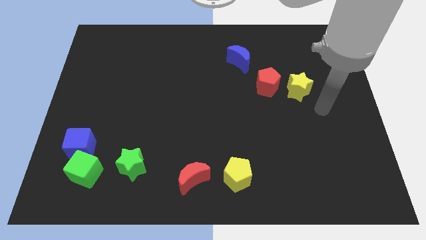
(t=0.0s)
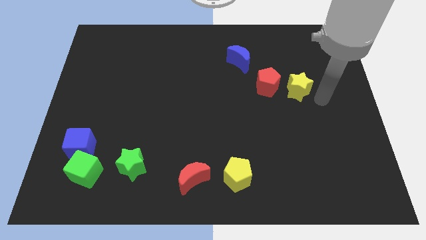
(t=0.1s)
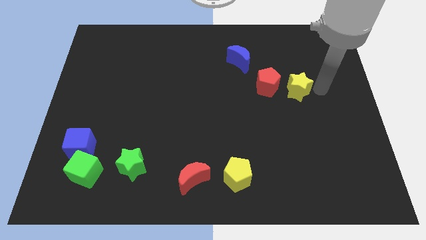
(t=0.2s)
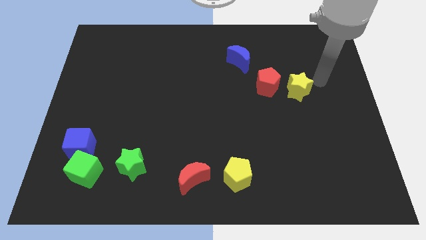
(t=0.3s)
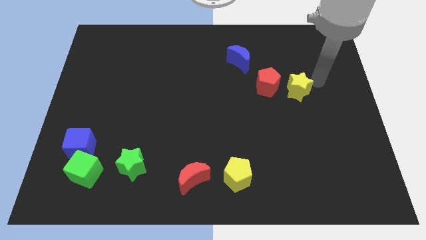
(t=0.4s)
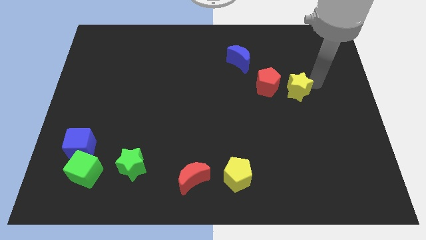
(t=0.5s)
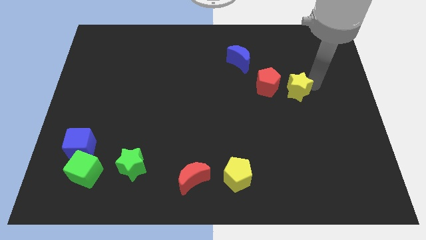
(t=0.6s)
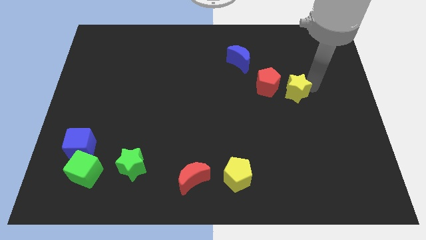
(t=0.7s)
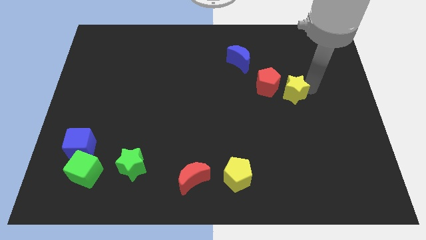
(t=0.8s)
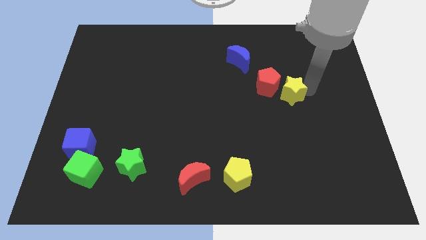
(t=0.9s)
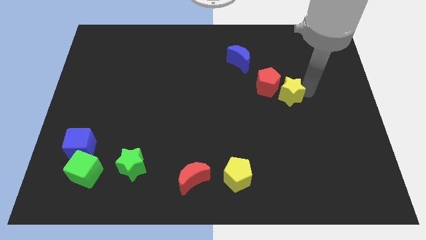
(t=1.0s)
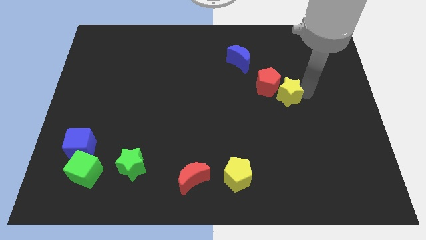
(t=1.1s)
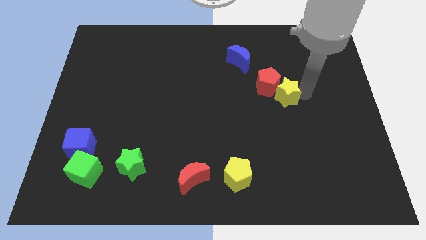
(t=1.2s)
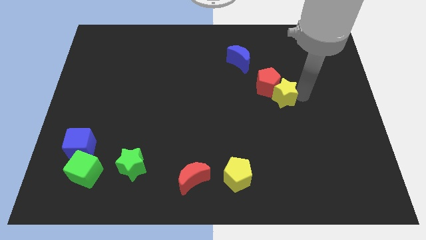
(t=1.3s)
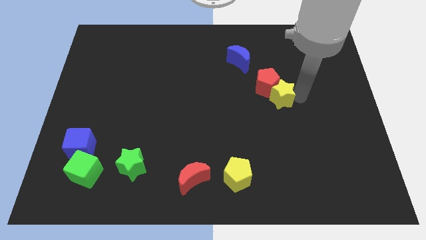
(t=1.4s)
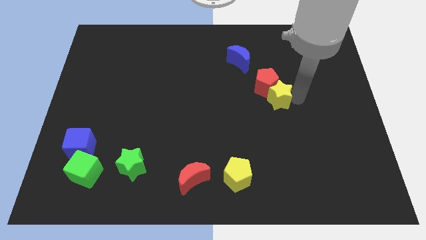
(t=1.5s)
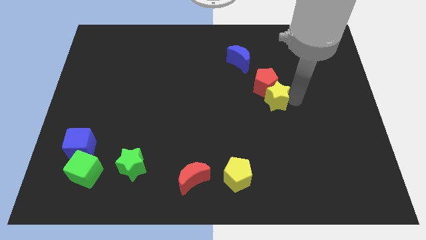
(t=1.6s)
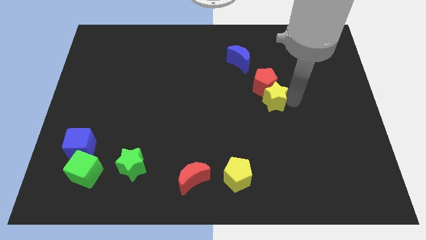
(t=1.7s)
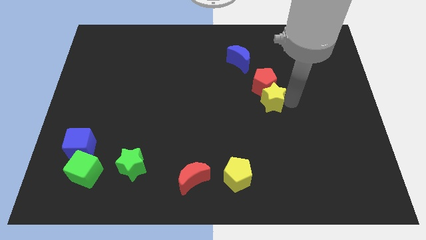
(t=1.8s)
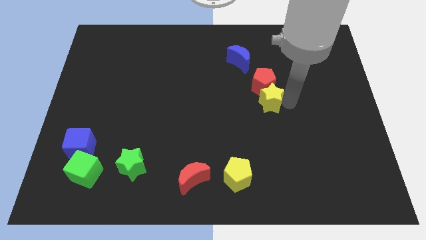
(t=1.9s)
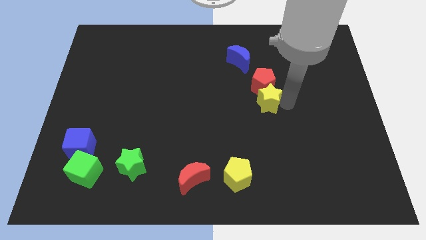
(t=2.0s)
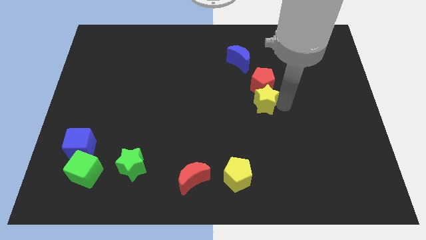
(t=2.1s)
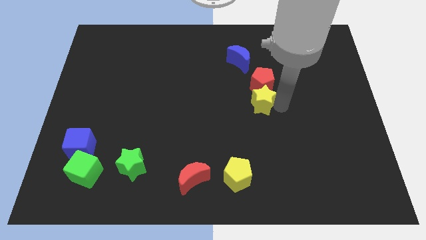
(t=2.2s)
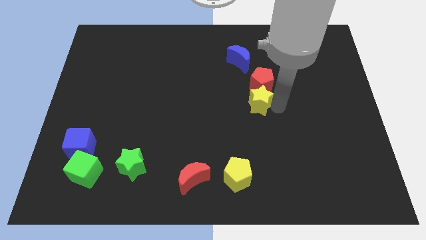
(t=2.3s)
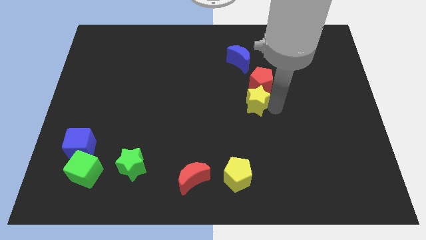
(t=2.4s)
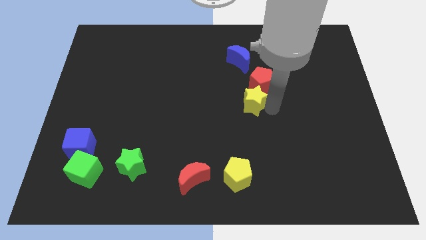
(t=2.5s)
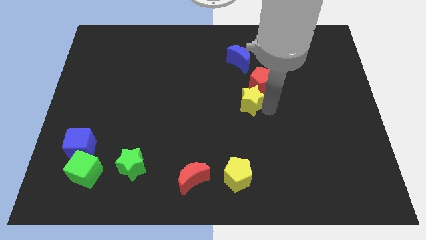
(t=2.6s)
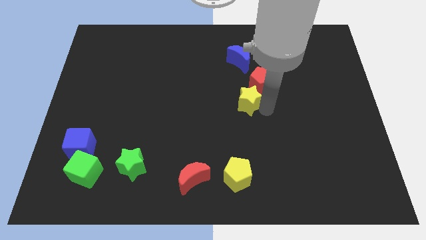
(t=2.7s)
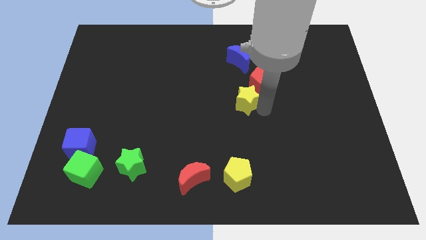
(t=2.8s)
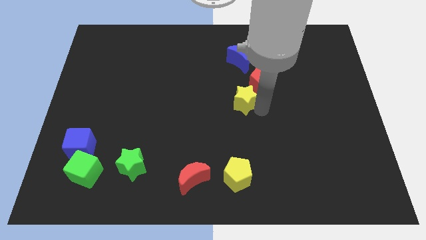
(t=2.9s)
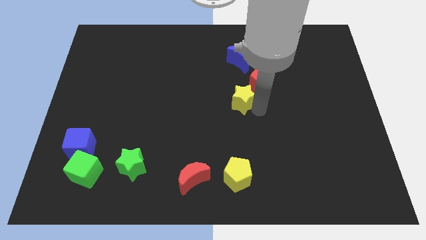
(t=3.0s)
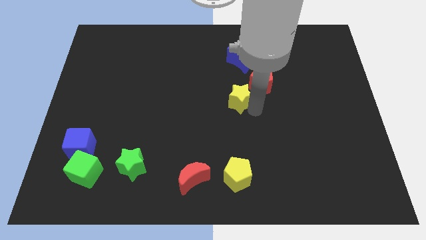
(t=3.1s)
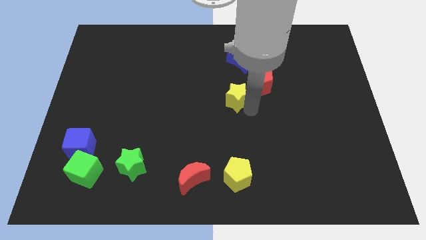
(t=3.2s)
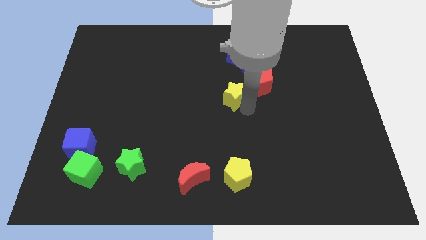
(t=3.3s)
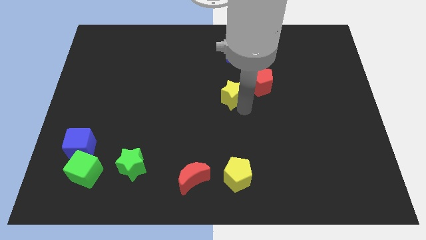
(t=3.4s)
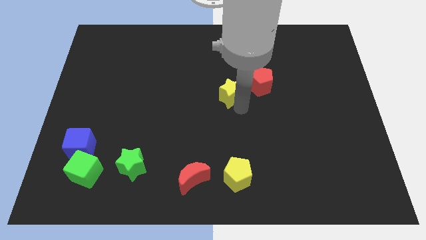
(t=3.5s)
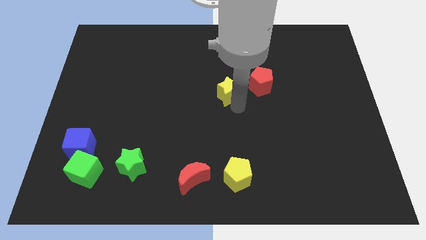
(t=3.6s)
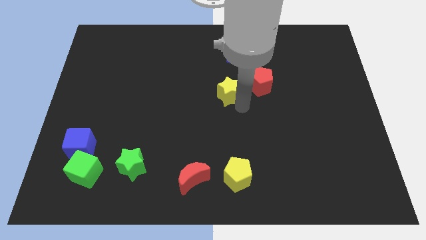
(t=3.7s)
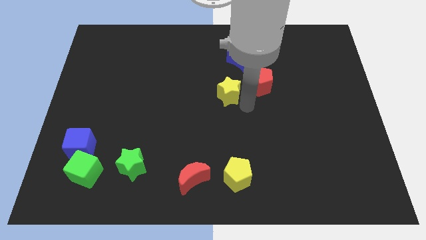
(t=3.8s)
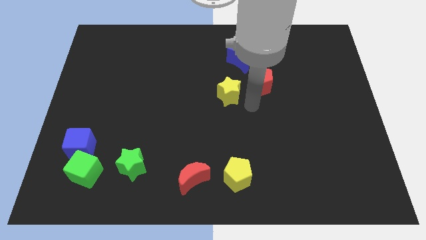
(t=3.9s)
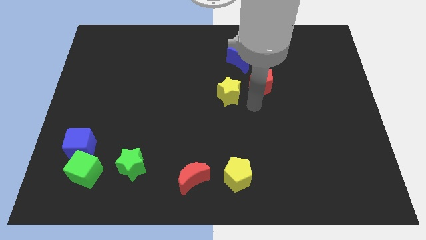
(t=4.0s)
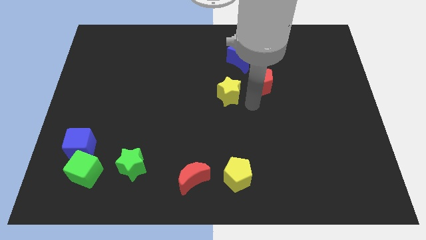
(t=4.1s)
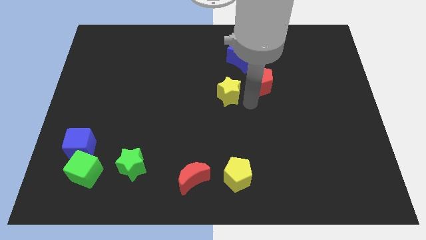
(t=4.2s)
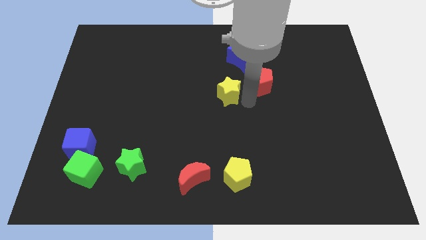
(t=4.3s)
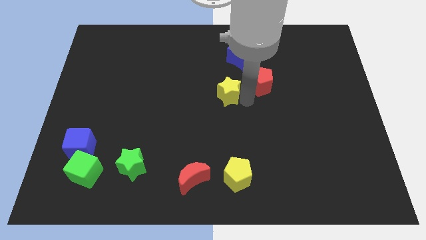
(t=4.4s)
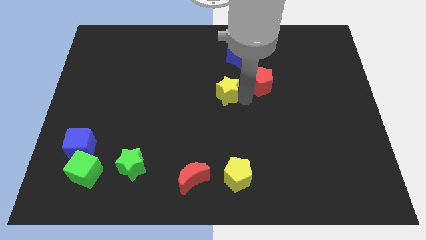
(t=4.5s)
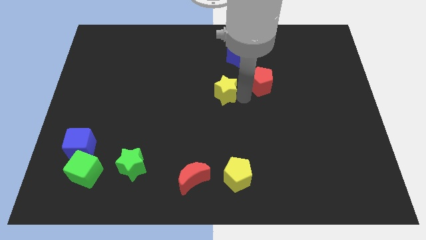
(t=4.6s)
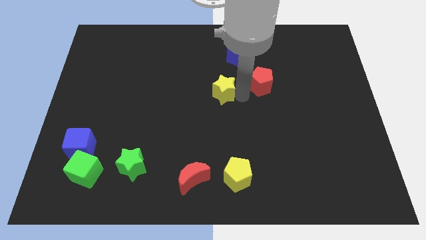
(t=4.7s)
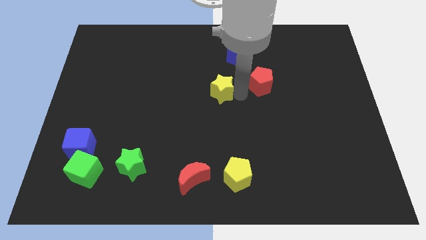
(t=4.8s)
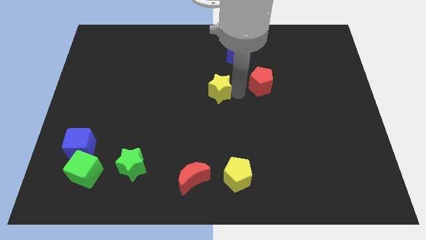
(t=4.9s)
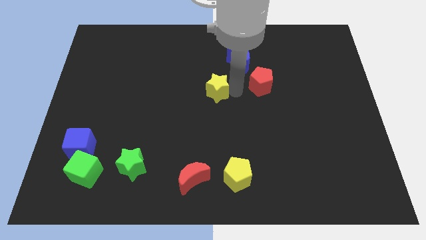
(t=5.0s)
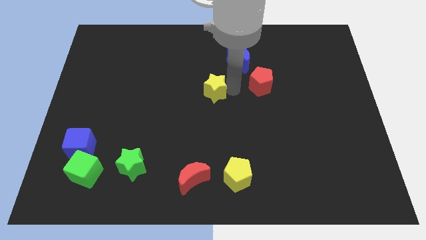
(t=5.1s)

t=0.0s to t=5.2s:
move the yellow star left

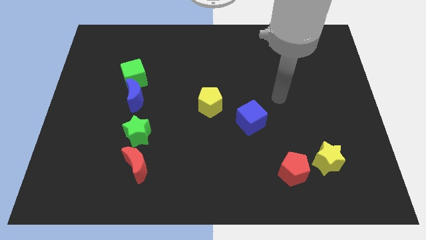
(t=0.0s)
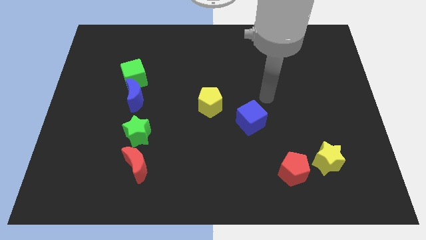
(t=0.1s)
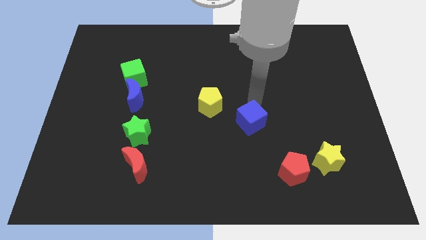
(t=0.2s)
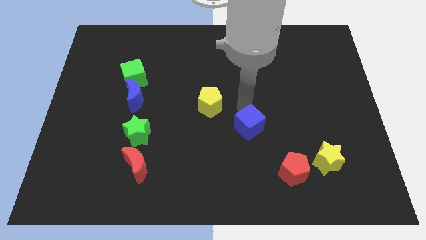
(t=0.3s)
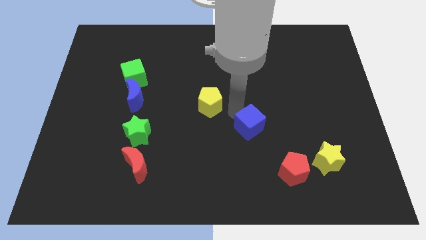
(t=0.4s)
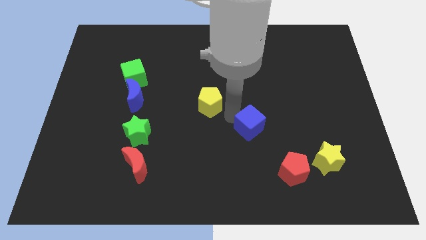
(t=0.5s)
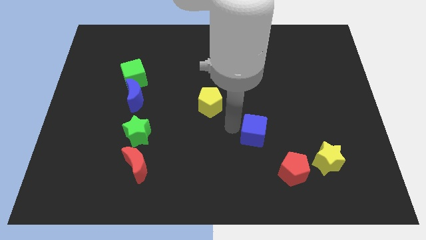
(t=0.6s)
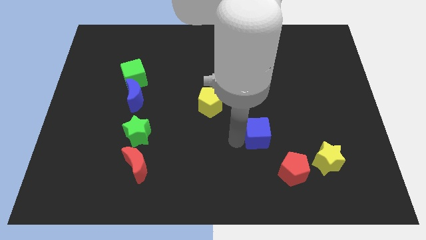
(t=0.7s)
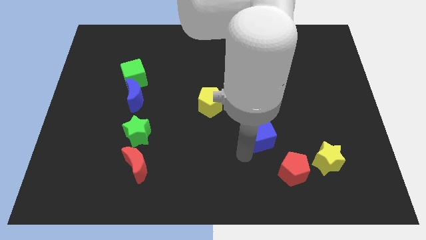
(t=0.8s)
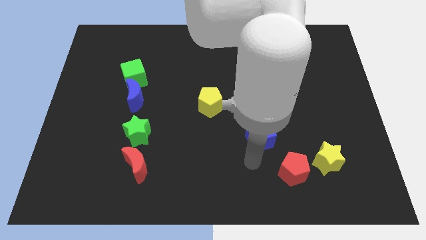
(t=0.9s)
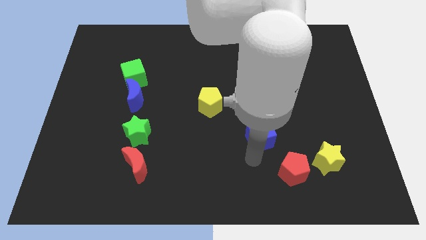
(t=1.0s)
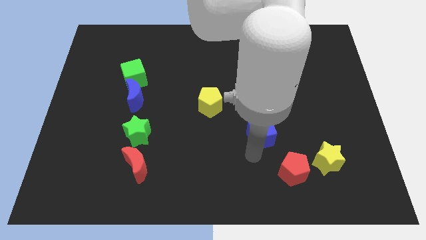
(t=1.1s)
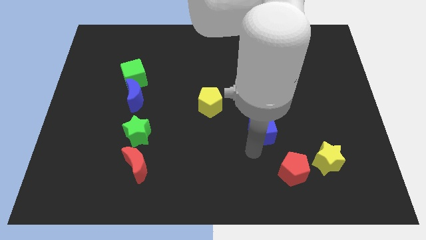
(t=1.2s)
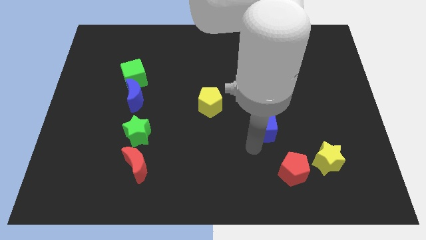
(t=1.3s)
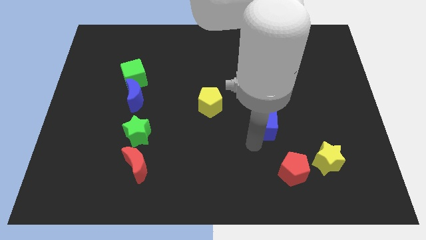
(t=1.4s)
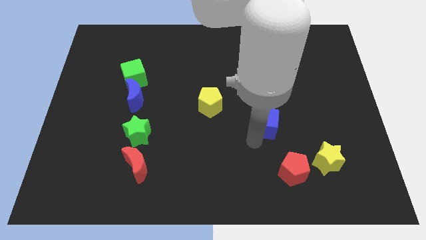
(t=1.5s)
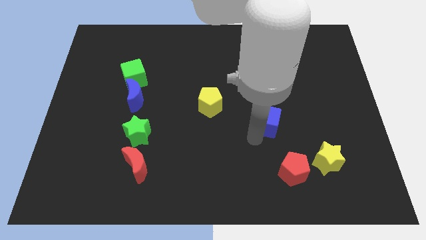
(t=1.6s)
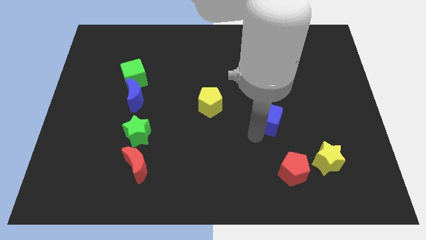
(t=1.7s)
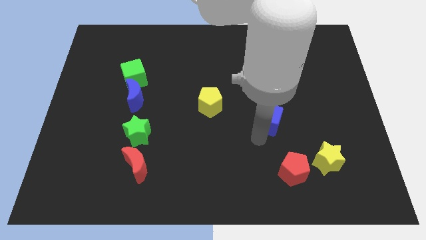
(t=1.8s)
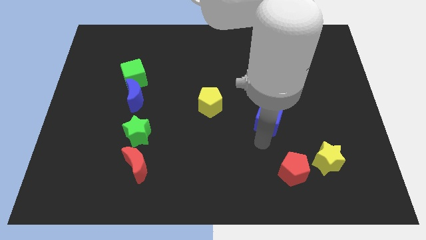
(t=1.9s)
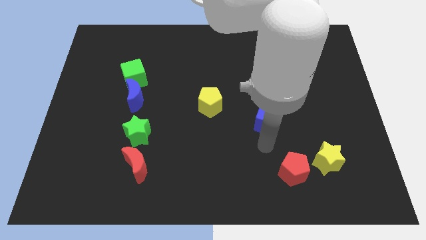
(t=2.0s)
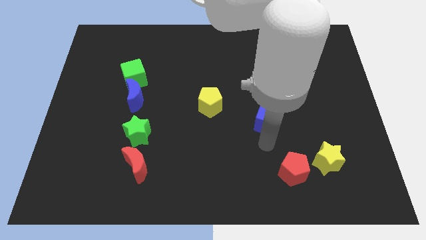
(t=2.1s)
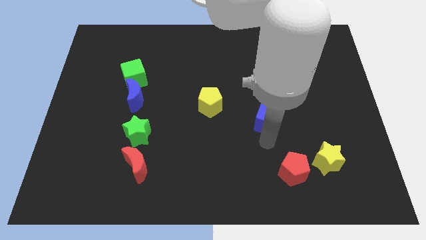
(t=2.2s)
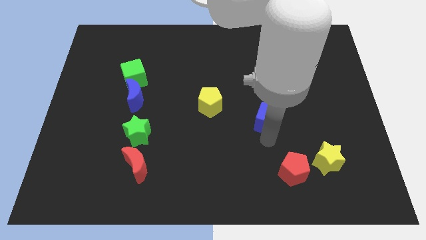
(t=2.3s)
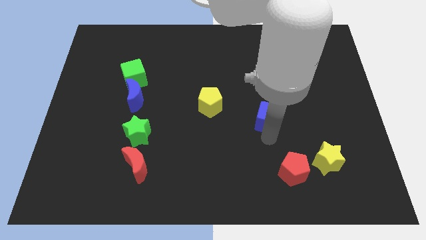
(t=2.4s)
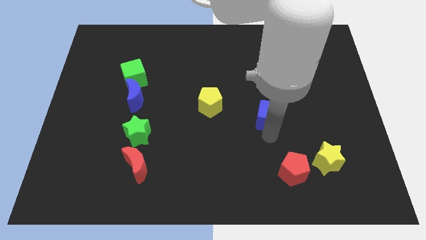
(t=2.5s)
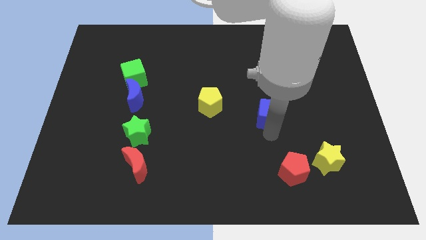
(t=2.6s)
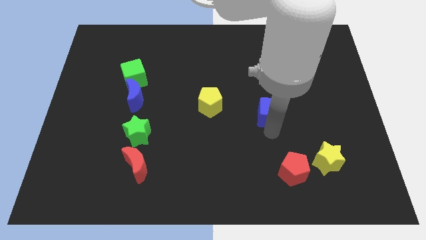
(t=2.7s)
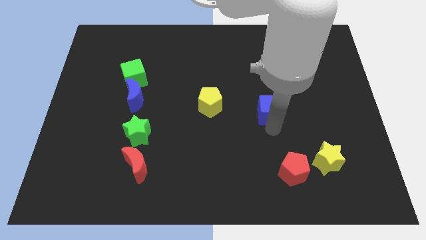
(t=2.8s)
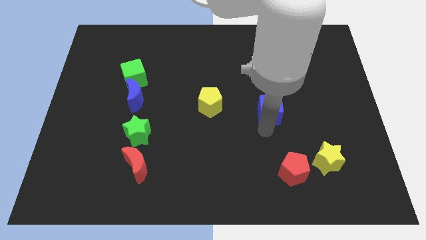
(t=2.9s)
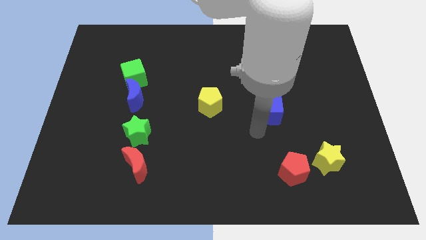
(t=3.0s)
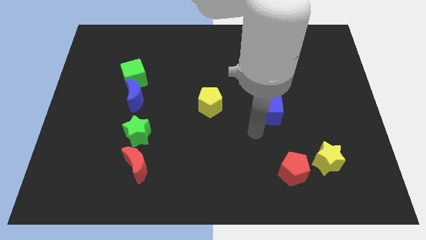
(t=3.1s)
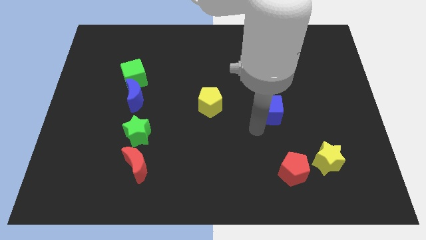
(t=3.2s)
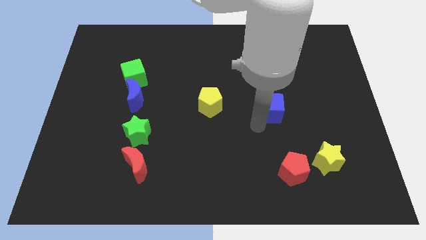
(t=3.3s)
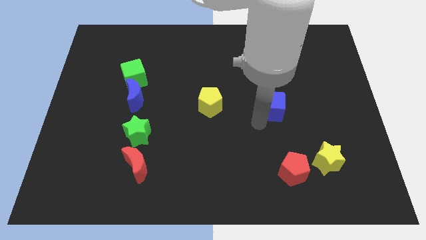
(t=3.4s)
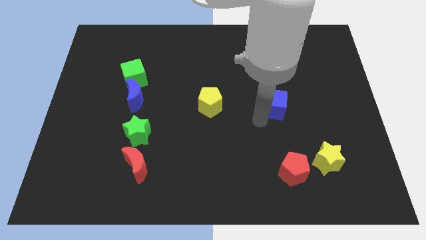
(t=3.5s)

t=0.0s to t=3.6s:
push the blue cube diagonally up and to the right a little bit
